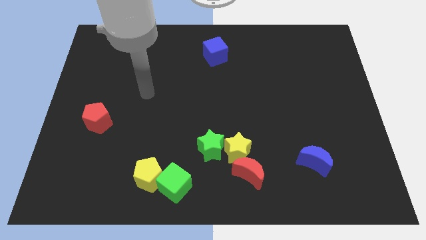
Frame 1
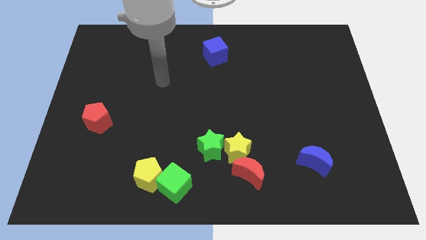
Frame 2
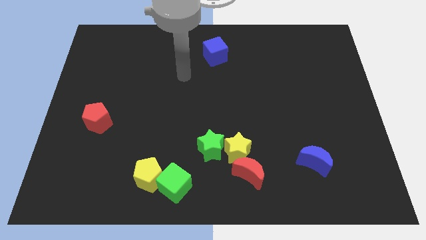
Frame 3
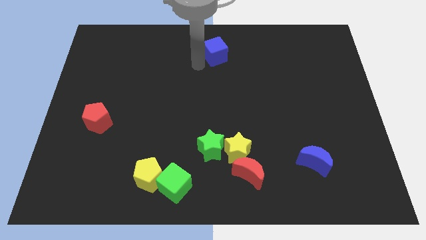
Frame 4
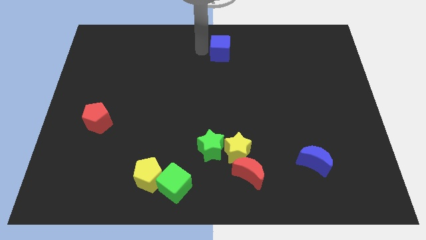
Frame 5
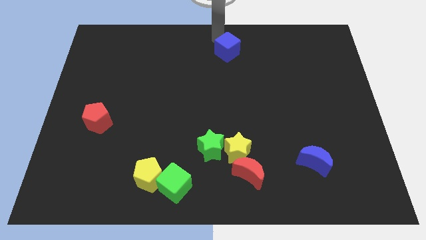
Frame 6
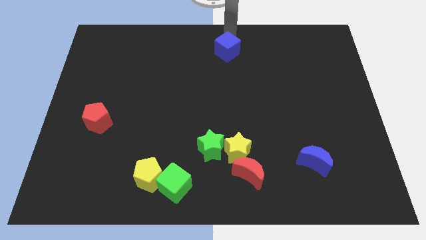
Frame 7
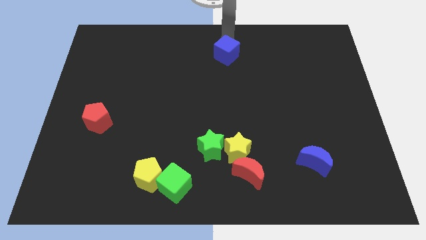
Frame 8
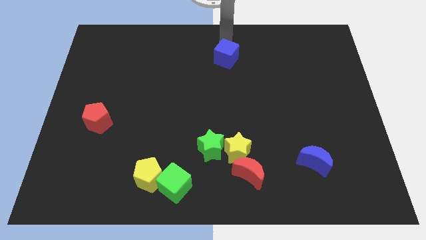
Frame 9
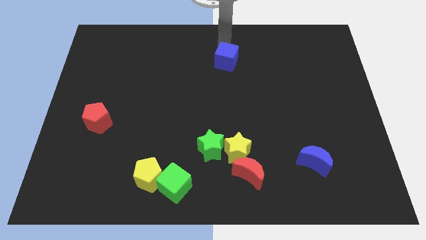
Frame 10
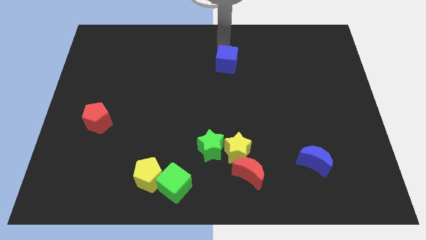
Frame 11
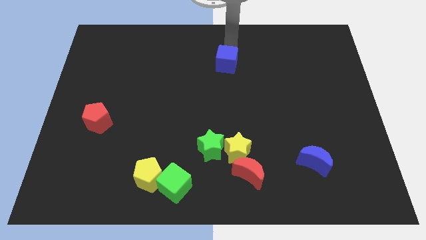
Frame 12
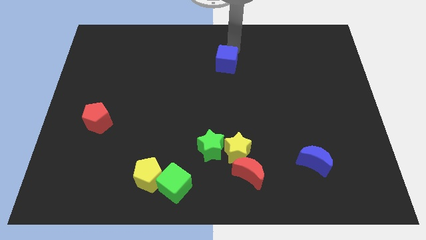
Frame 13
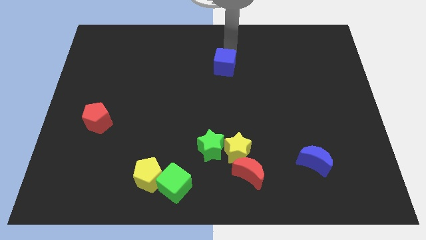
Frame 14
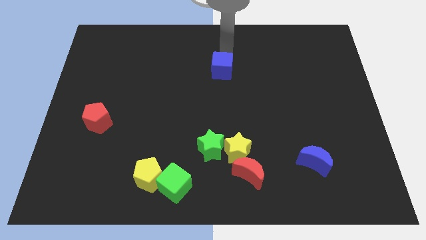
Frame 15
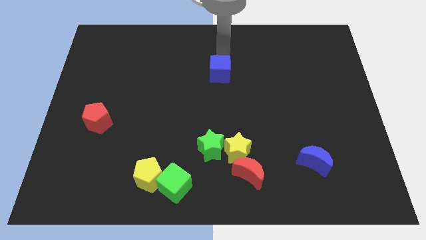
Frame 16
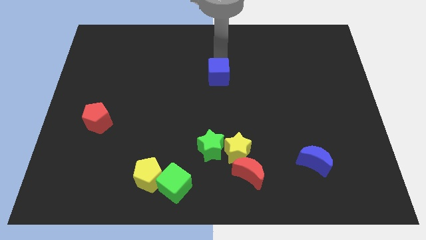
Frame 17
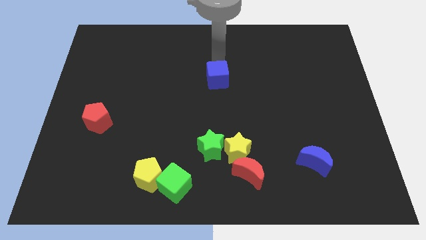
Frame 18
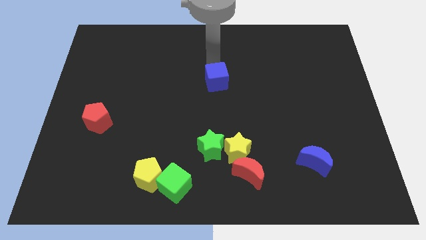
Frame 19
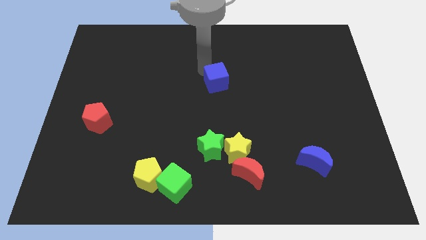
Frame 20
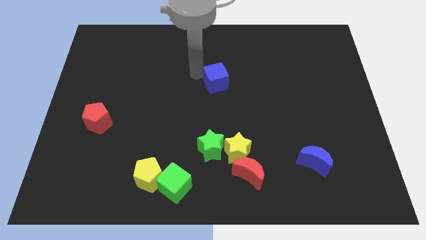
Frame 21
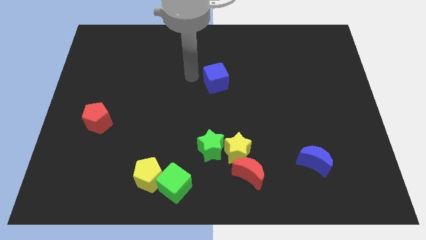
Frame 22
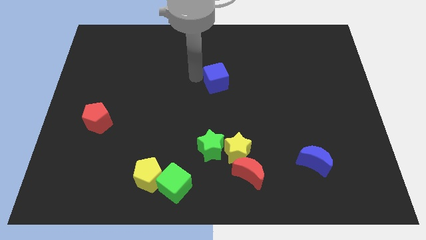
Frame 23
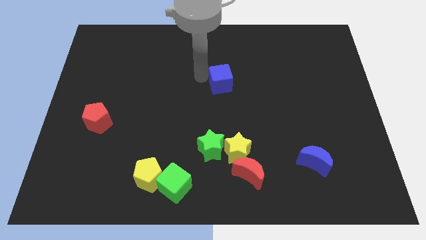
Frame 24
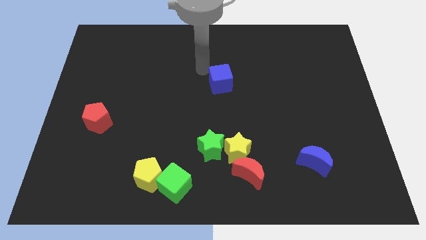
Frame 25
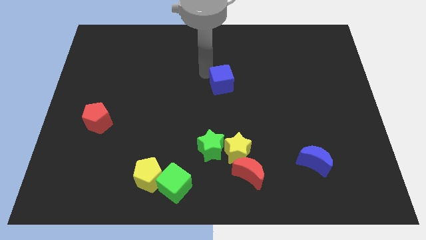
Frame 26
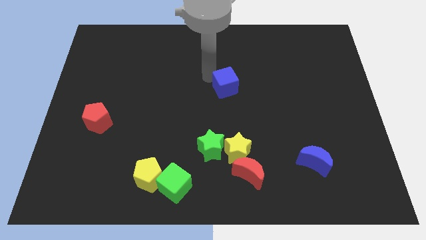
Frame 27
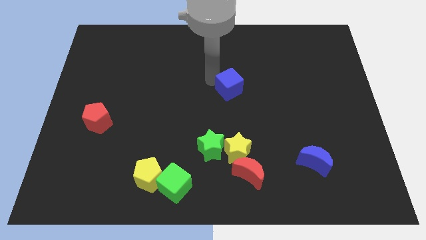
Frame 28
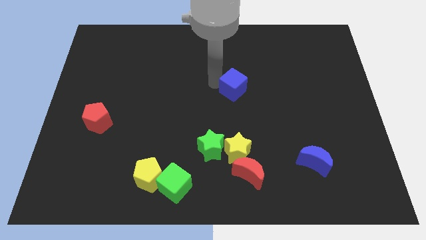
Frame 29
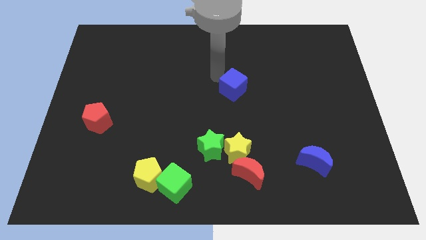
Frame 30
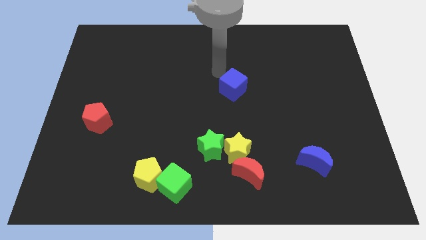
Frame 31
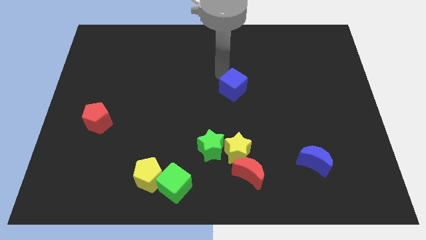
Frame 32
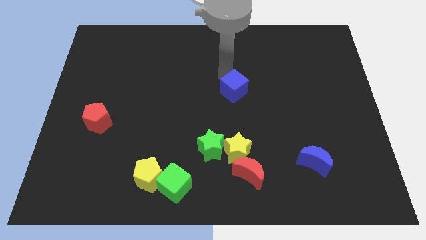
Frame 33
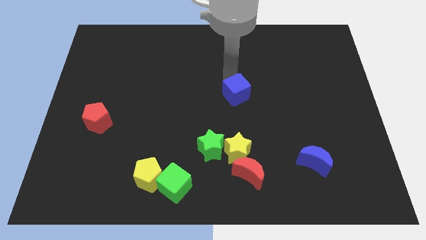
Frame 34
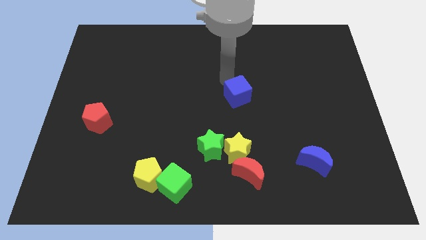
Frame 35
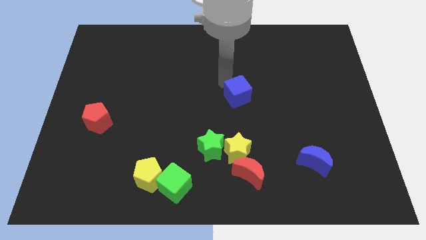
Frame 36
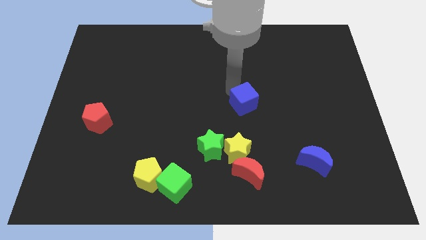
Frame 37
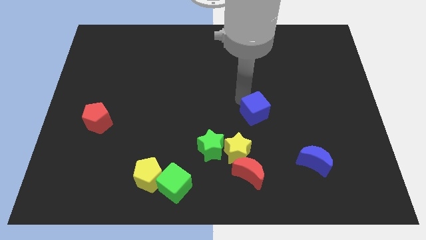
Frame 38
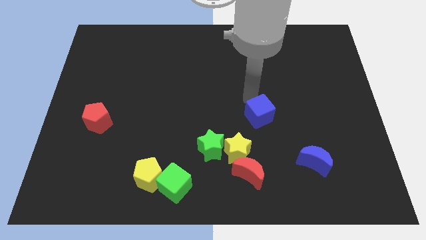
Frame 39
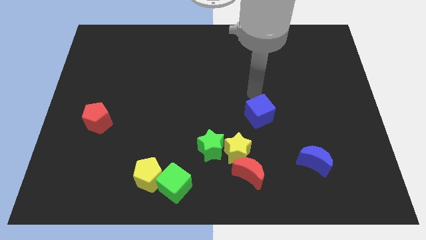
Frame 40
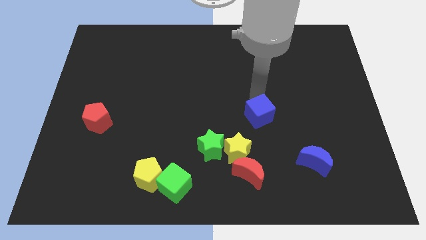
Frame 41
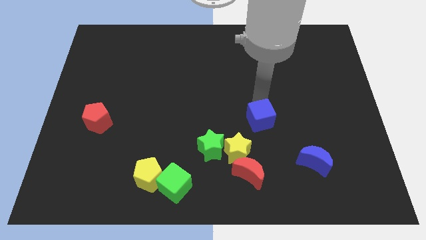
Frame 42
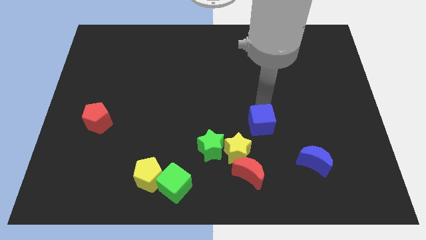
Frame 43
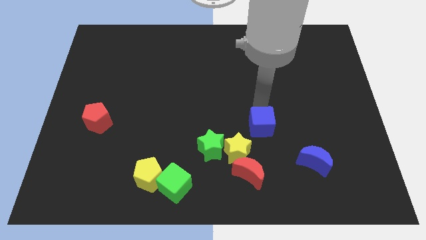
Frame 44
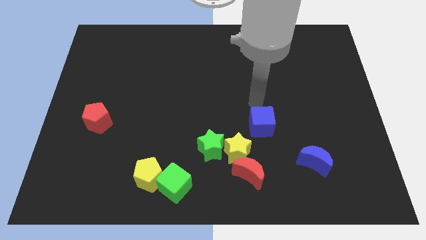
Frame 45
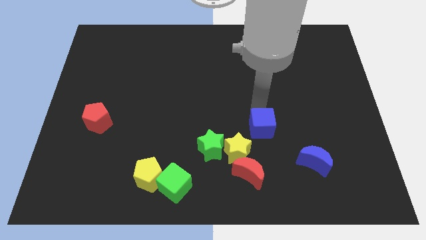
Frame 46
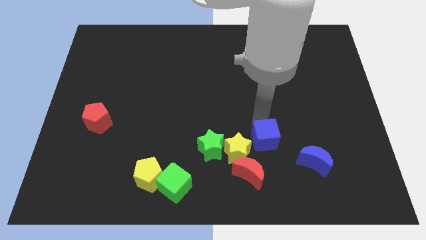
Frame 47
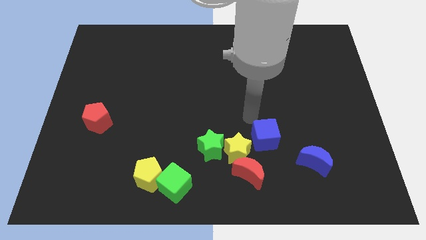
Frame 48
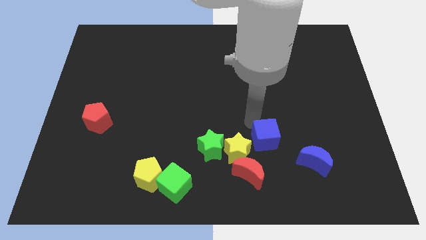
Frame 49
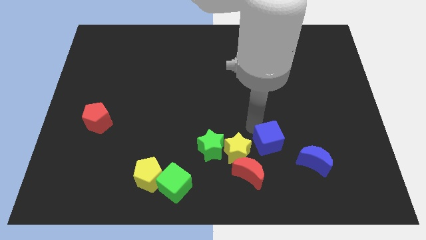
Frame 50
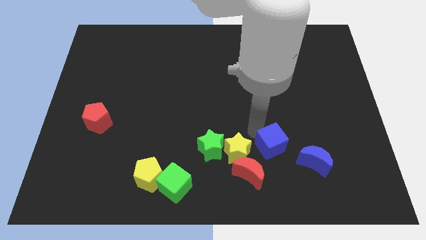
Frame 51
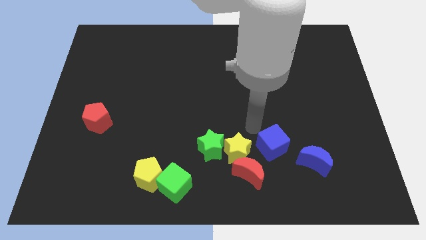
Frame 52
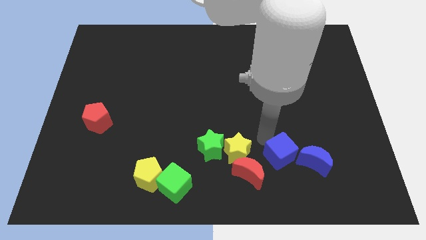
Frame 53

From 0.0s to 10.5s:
put the blue cube to the right of the red moon

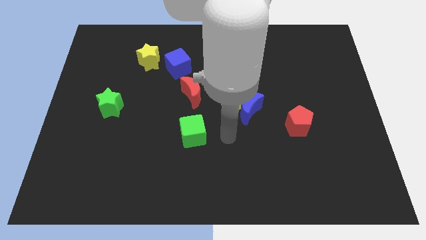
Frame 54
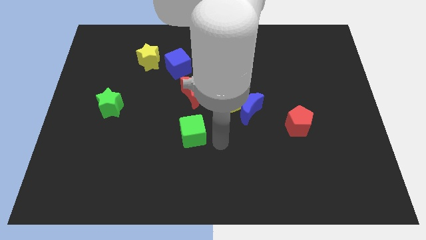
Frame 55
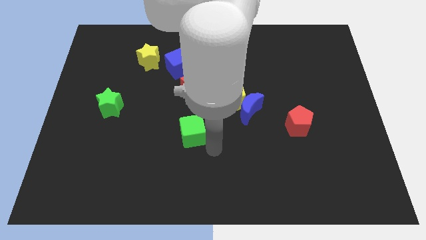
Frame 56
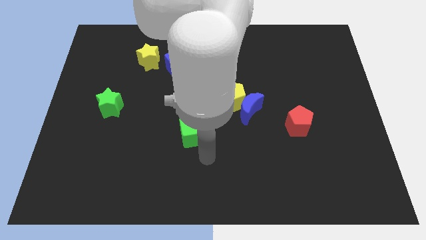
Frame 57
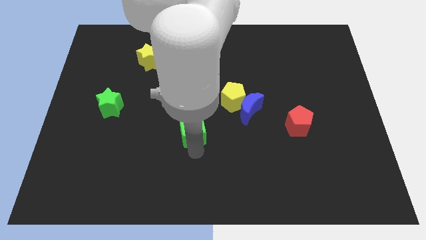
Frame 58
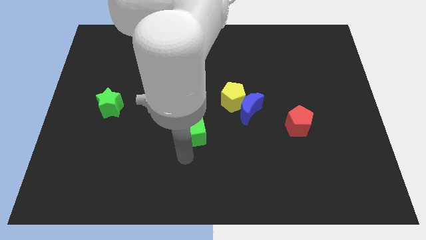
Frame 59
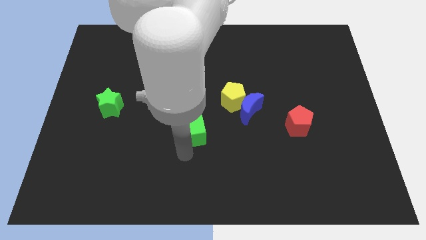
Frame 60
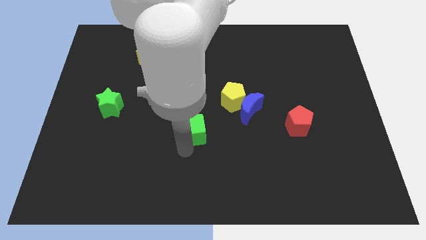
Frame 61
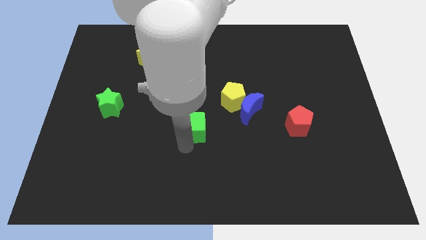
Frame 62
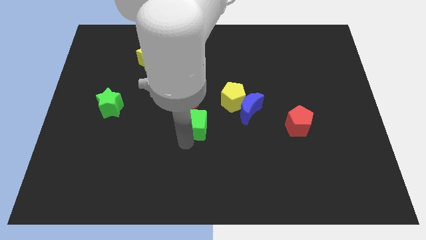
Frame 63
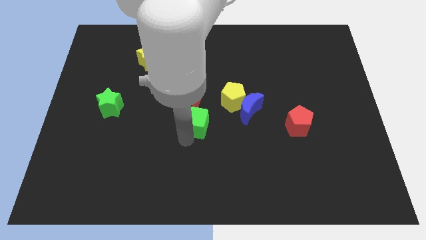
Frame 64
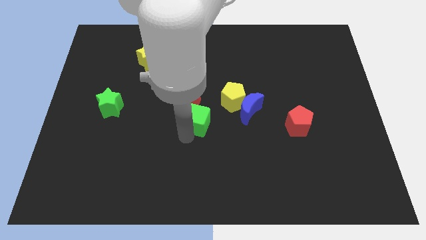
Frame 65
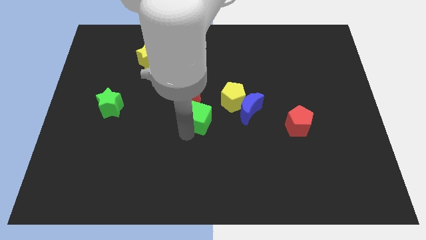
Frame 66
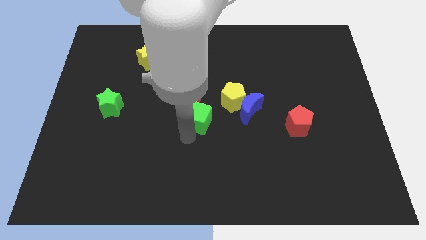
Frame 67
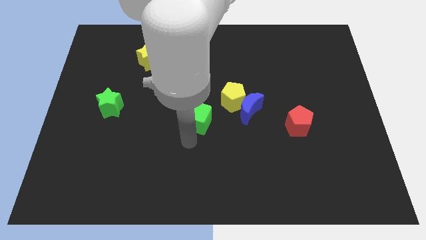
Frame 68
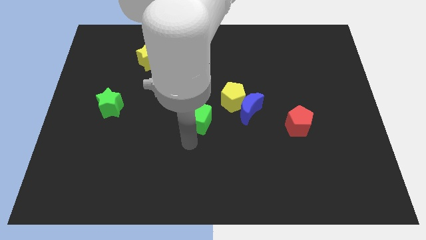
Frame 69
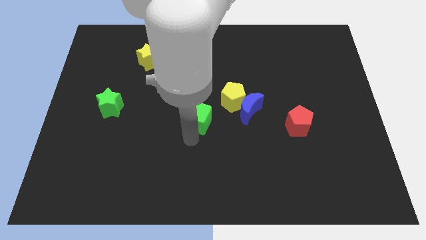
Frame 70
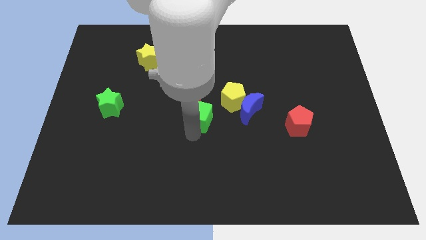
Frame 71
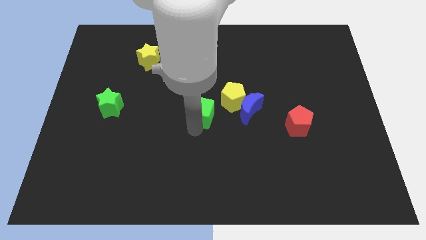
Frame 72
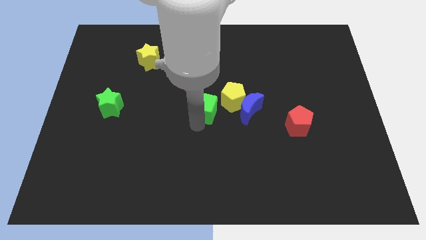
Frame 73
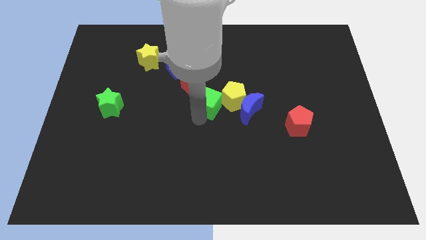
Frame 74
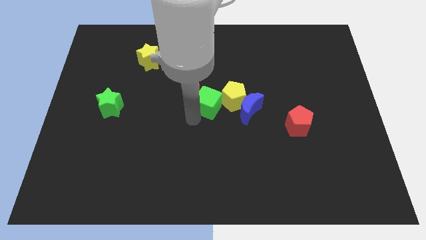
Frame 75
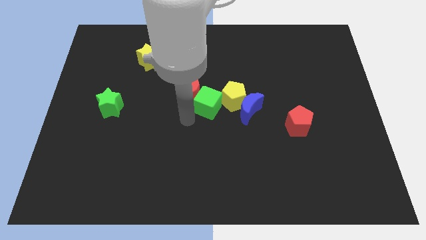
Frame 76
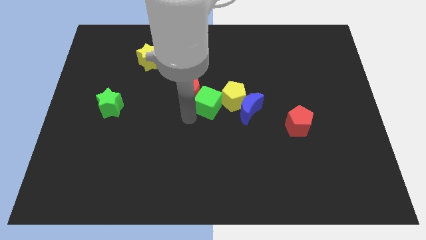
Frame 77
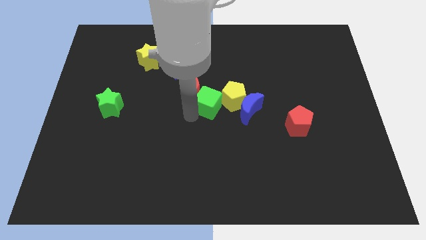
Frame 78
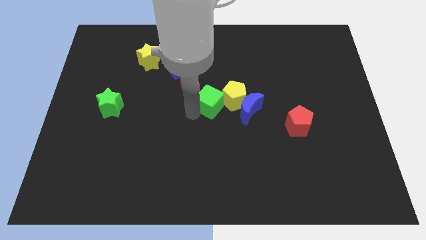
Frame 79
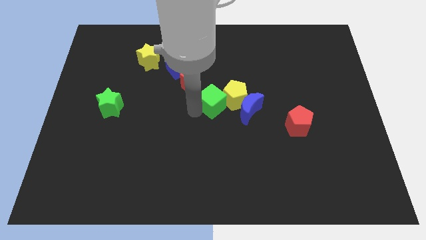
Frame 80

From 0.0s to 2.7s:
push the green cube to the top left side of the blue moon
